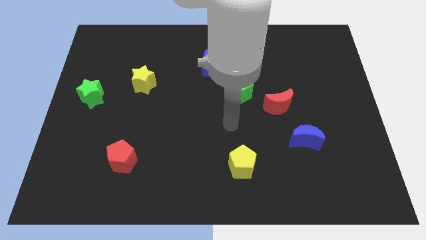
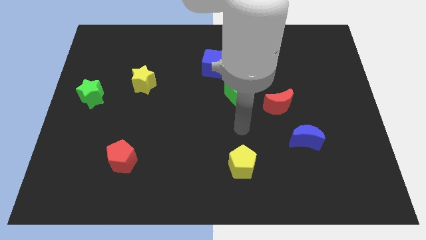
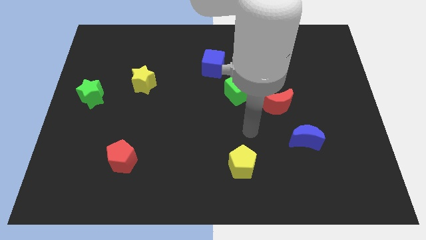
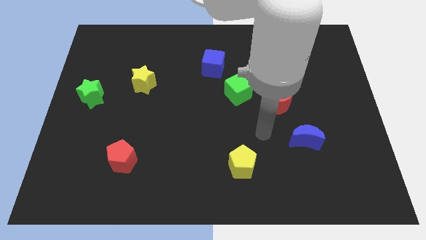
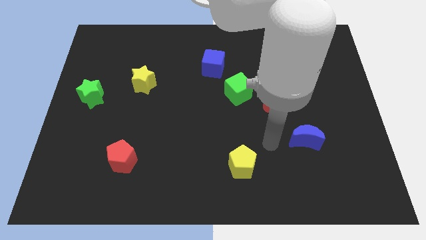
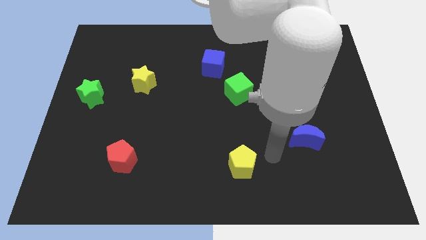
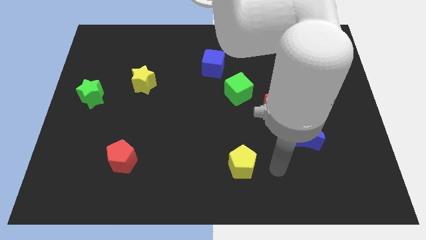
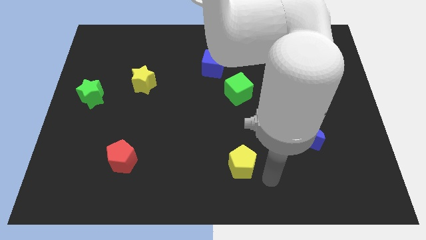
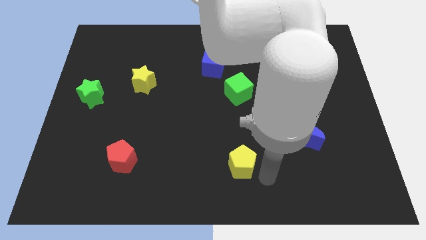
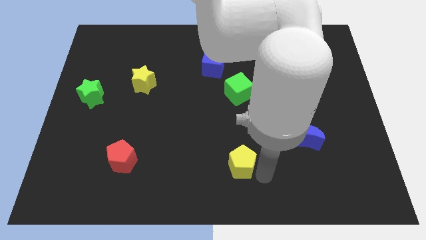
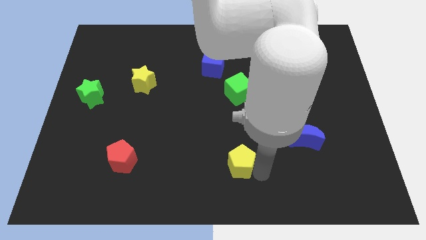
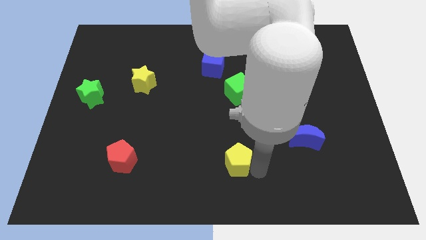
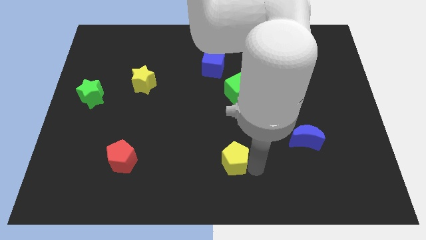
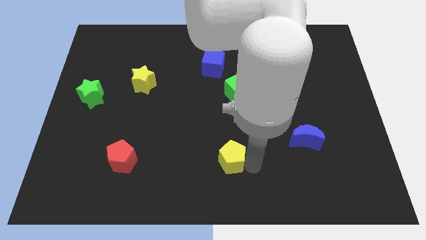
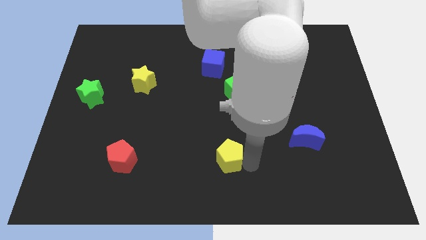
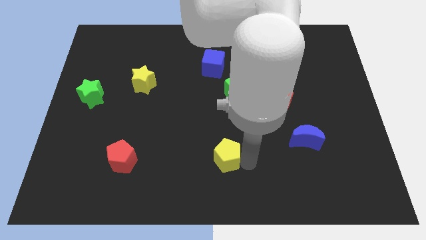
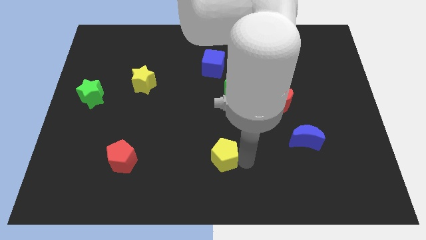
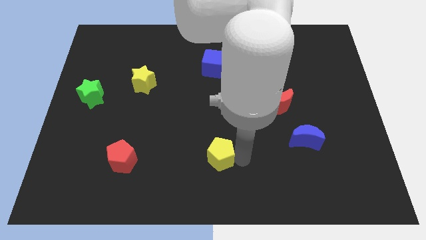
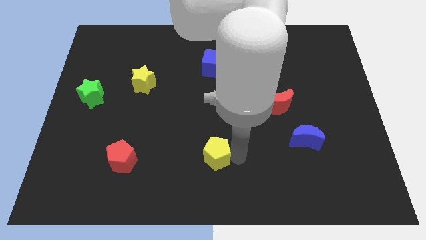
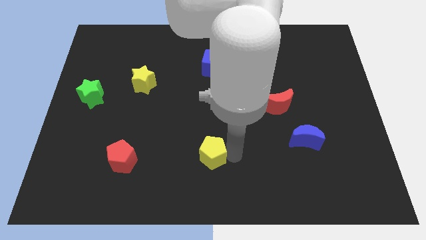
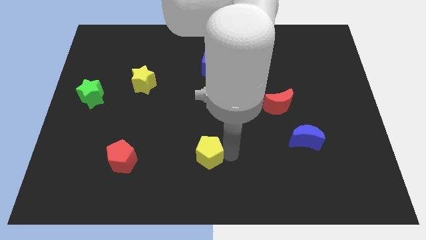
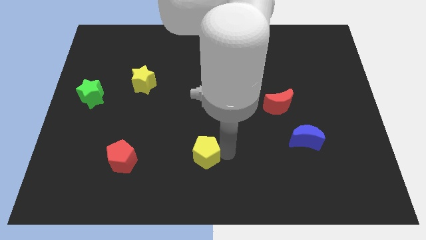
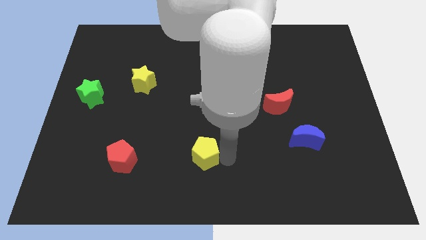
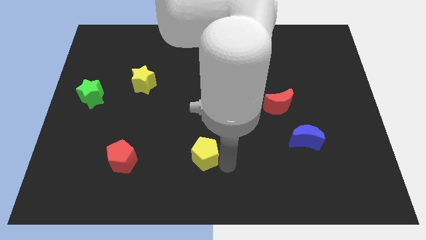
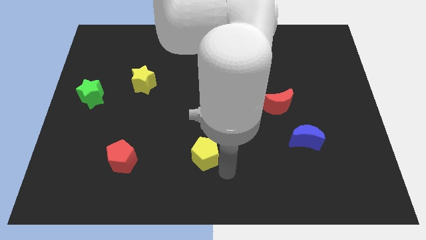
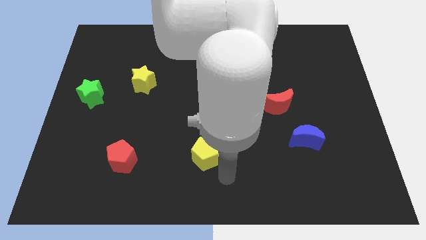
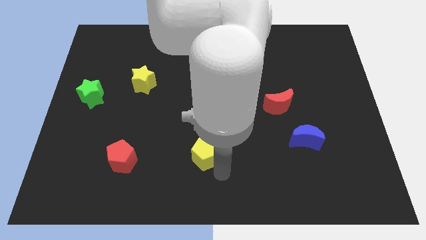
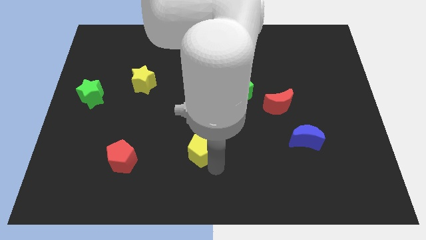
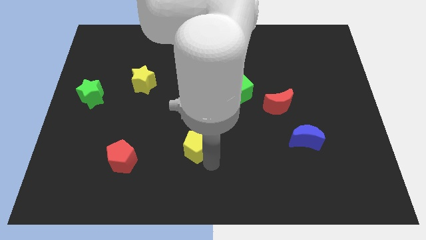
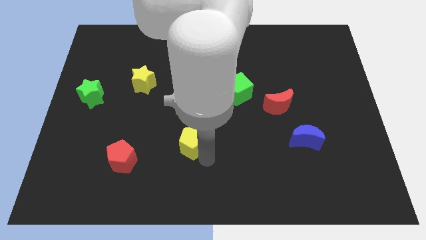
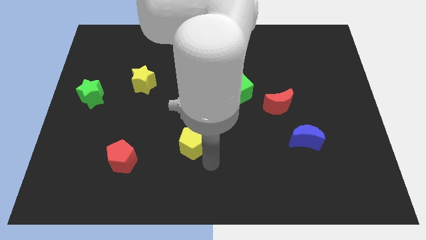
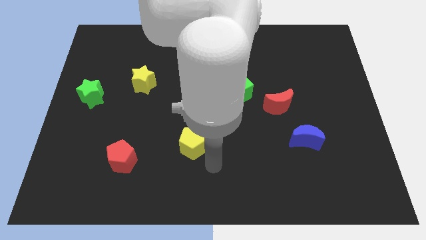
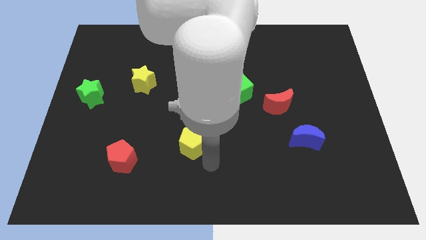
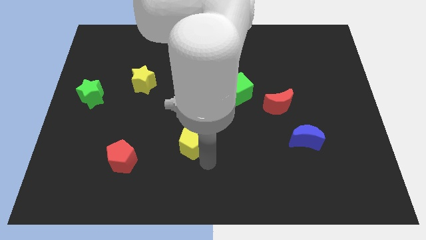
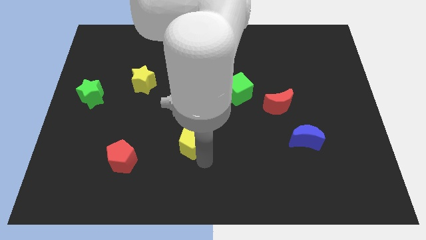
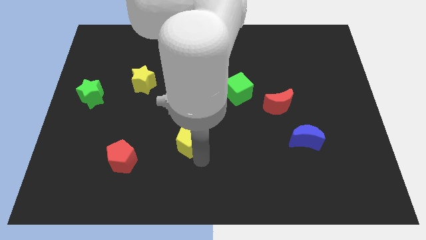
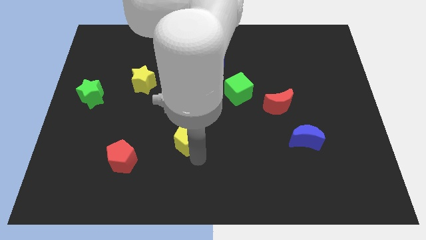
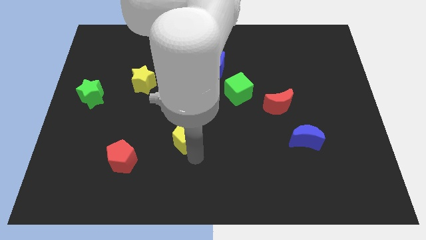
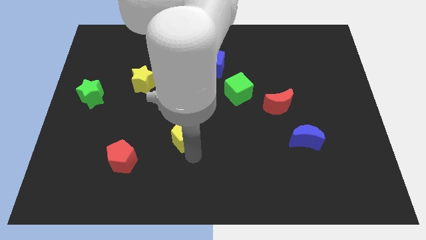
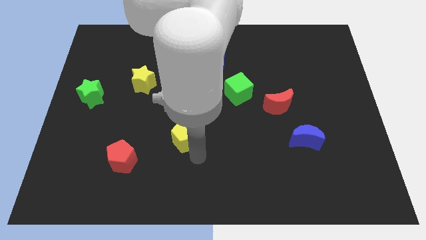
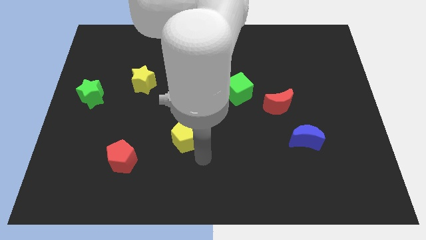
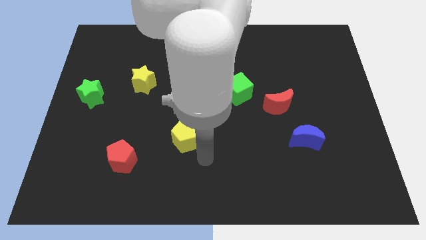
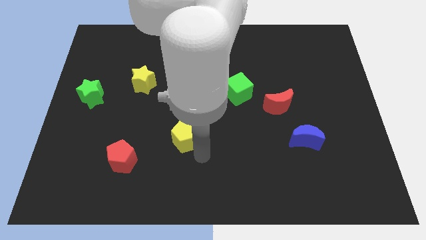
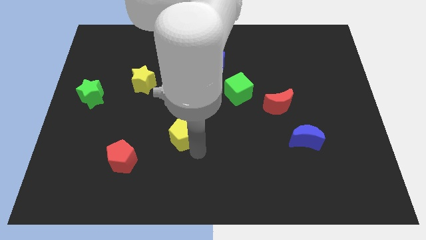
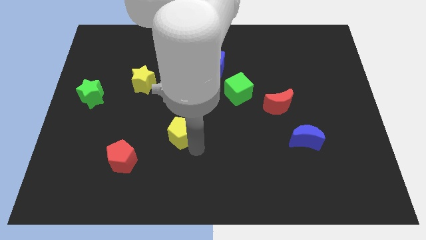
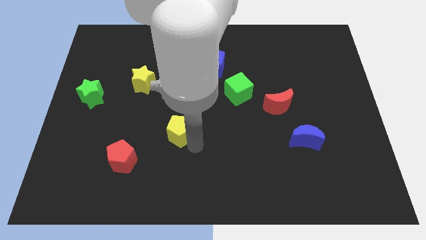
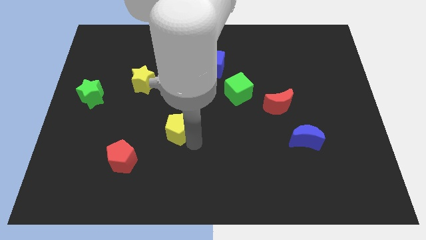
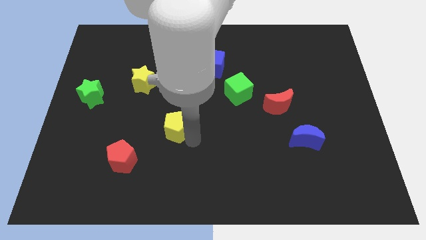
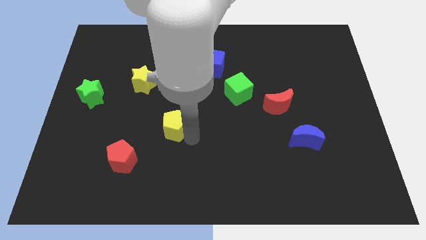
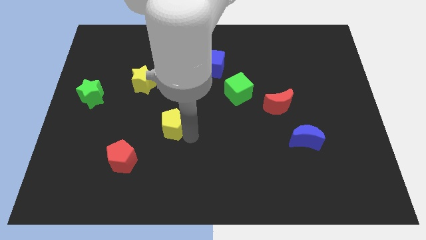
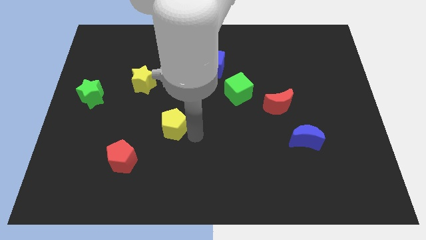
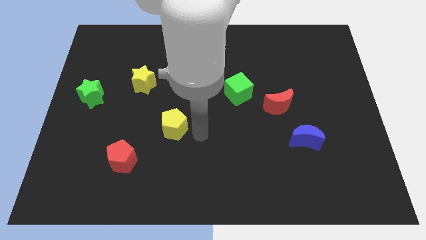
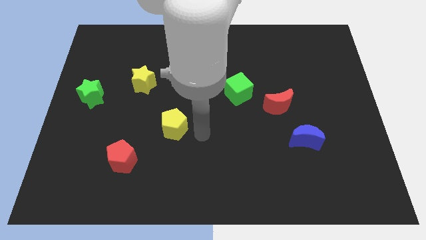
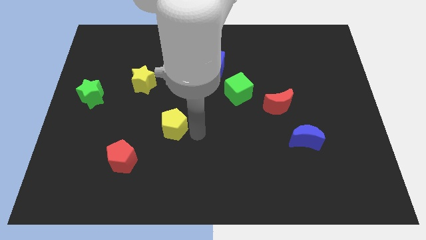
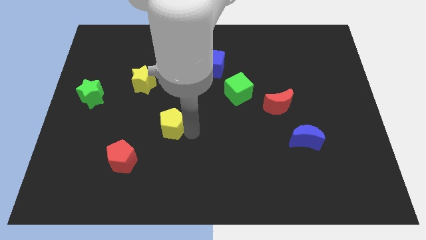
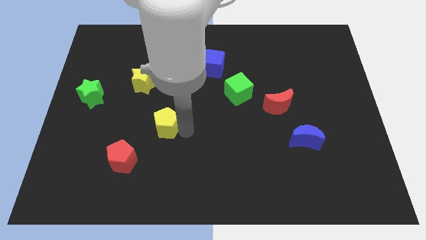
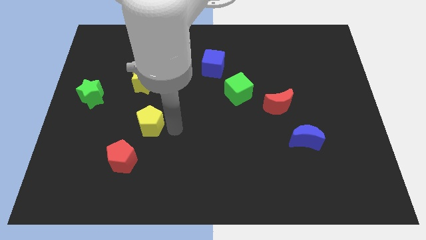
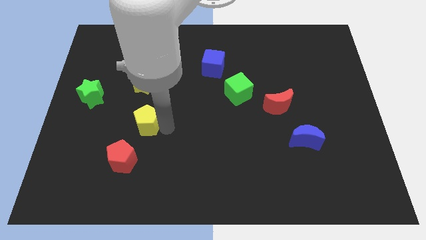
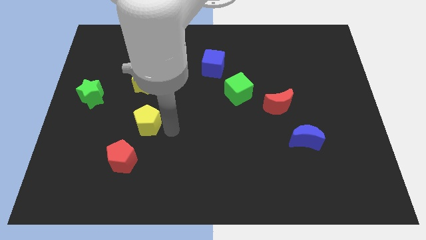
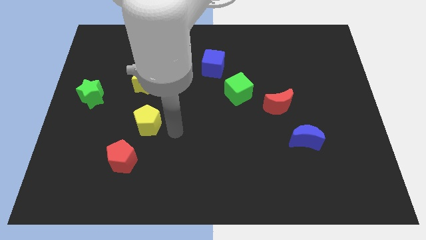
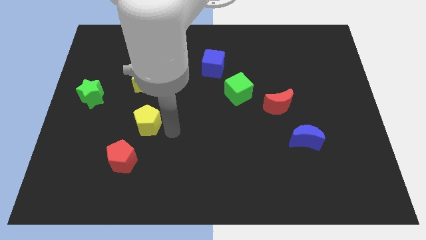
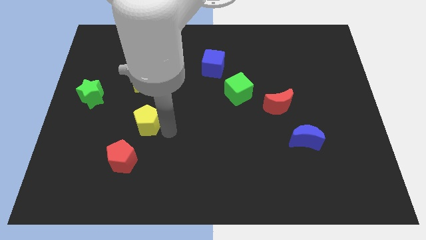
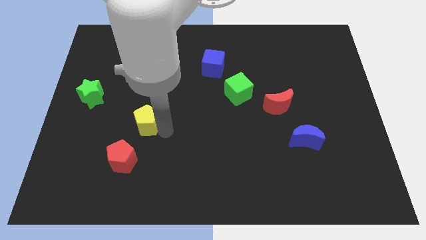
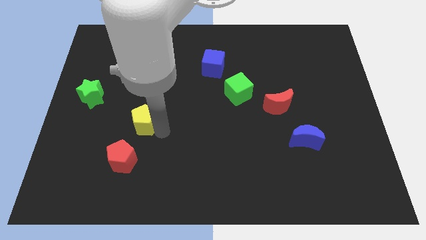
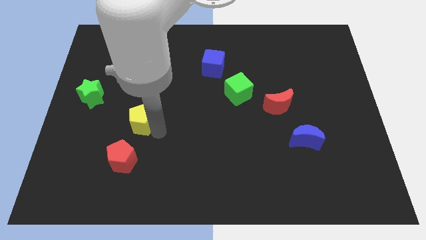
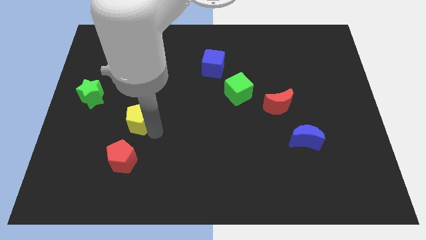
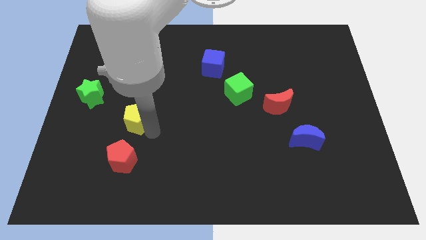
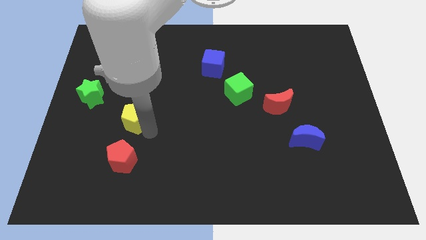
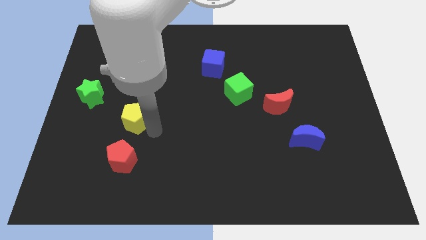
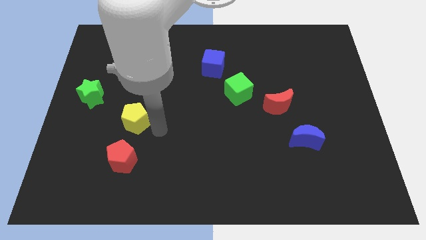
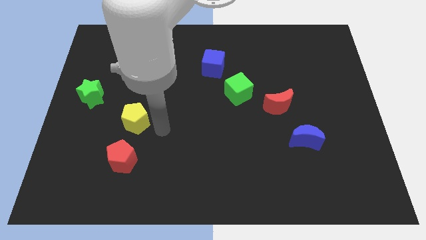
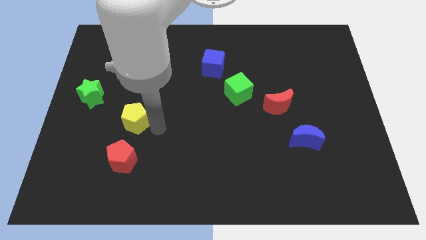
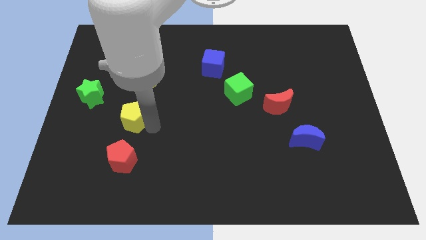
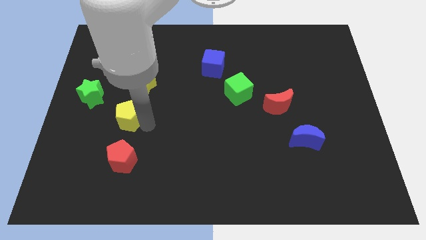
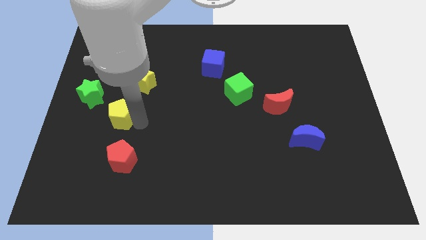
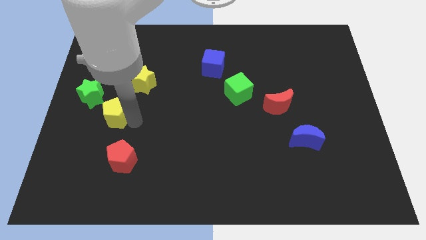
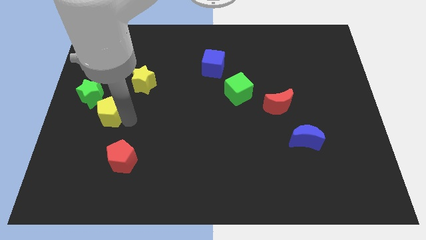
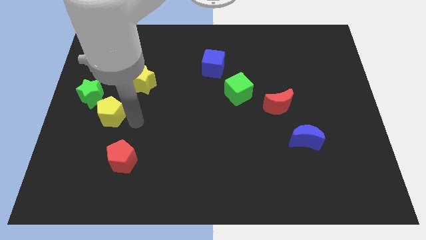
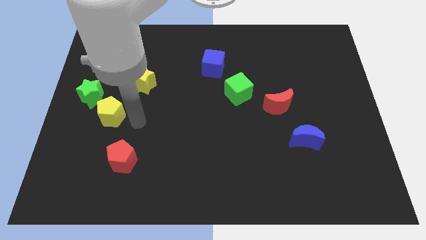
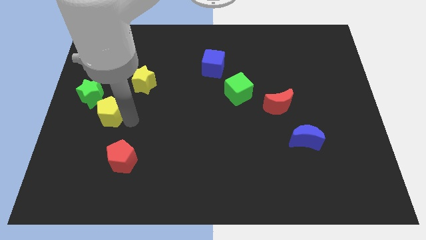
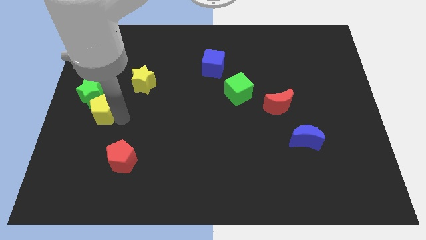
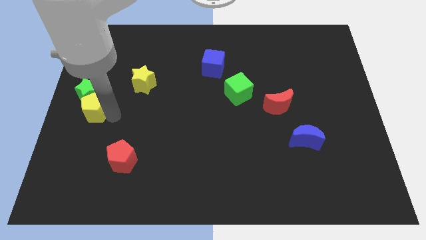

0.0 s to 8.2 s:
move the yellow pentagon to the center left
